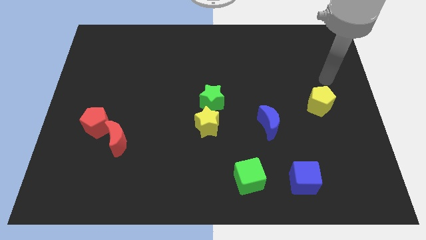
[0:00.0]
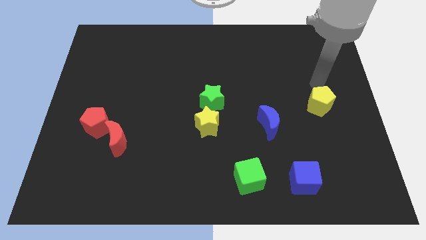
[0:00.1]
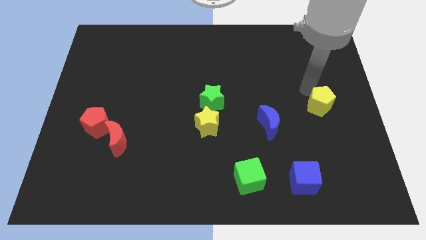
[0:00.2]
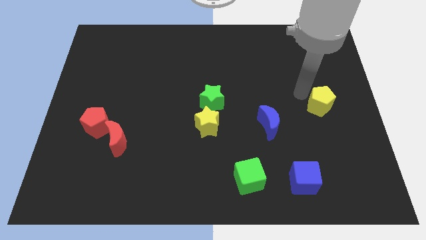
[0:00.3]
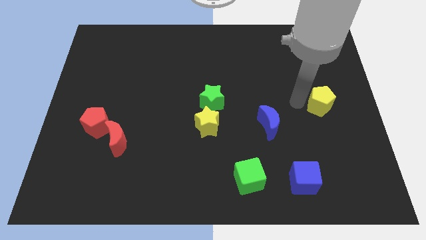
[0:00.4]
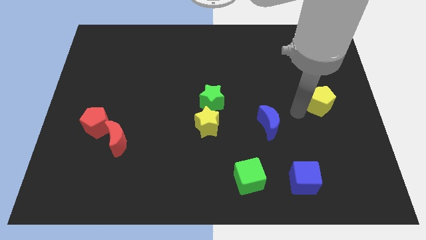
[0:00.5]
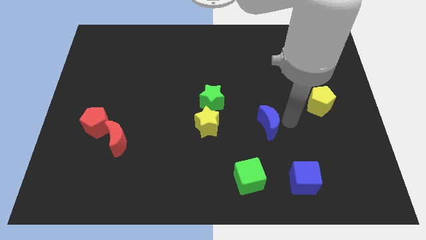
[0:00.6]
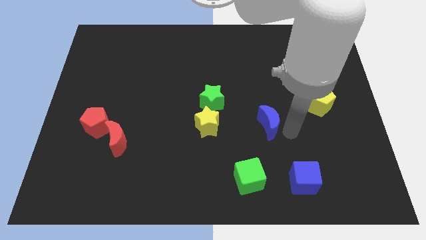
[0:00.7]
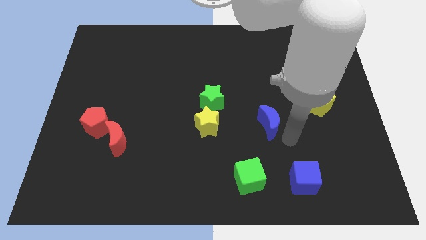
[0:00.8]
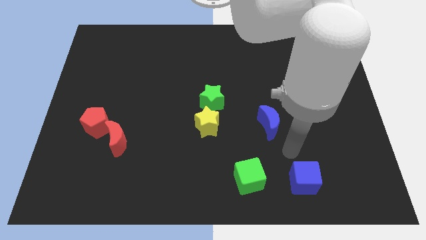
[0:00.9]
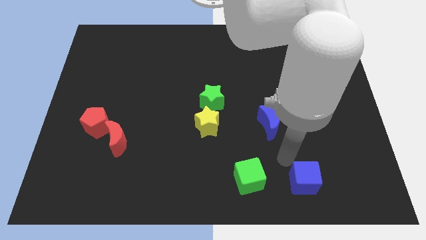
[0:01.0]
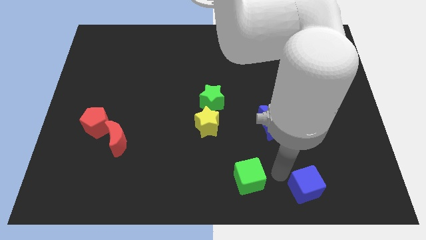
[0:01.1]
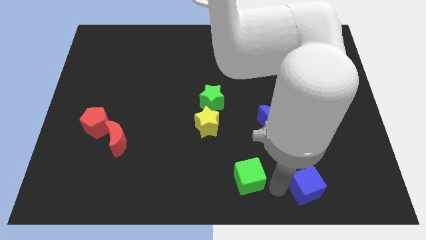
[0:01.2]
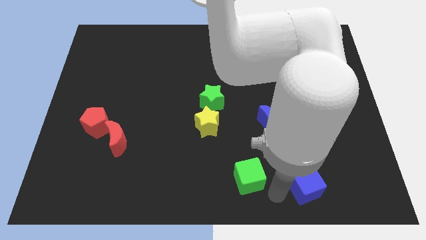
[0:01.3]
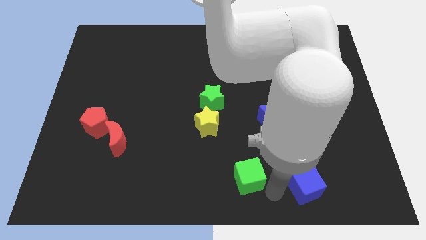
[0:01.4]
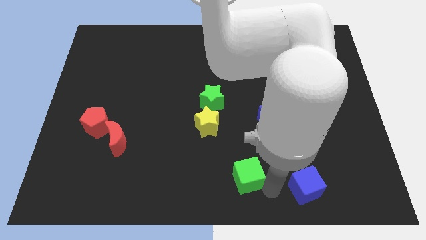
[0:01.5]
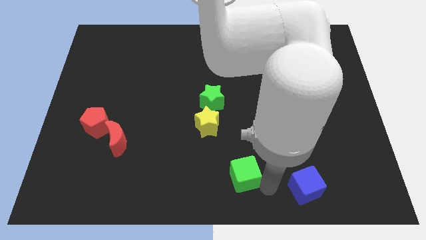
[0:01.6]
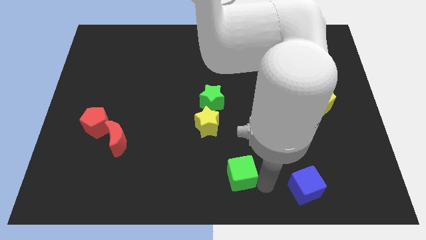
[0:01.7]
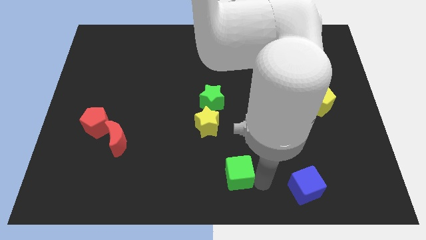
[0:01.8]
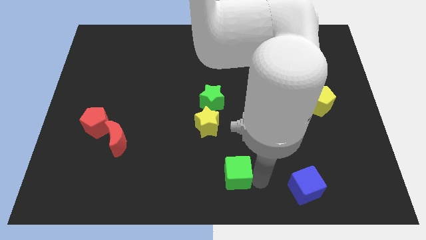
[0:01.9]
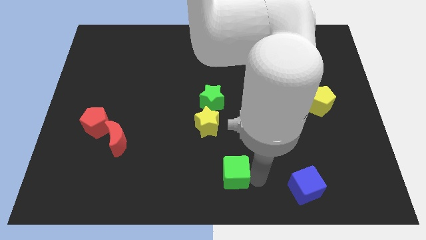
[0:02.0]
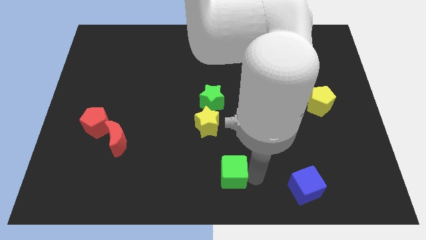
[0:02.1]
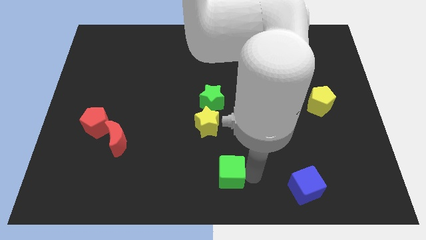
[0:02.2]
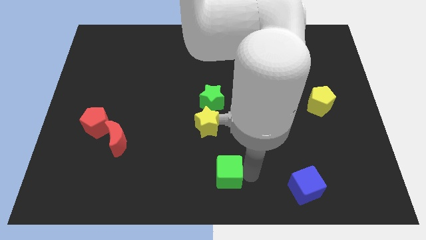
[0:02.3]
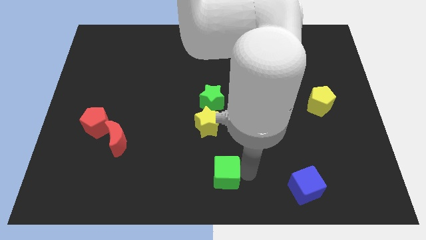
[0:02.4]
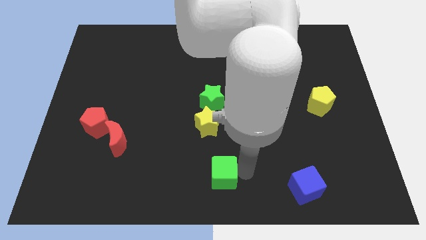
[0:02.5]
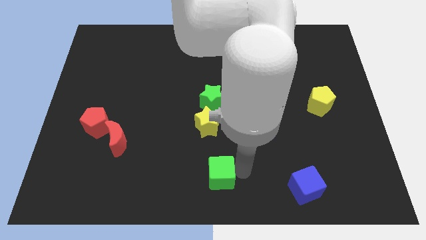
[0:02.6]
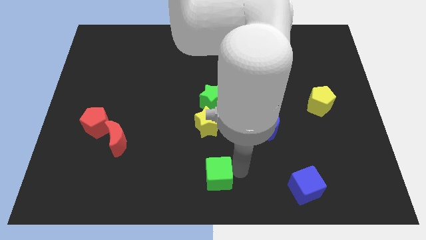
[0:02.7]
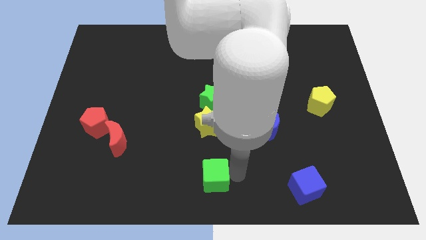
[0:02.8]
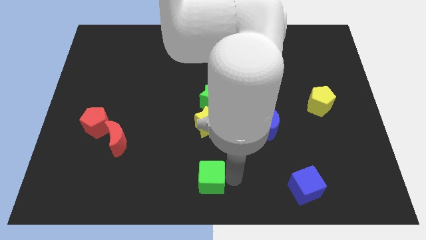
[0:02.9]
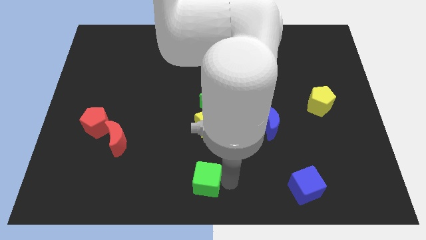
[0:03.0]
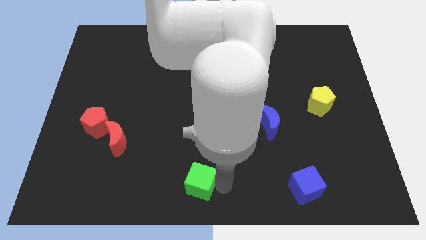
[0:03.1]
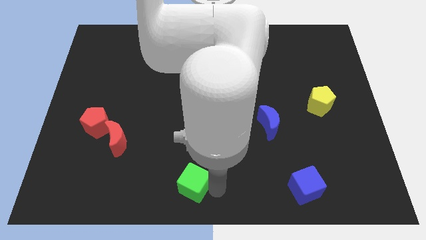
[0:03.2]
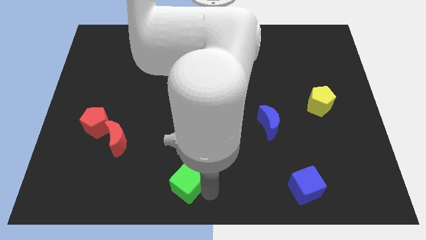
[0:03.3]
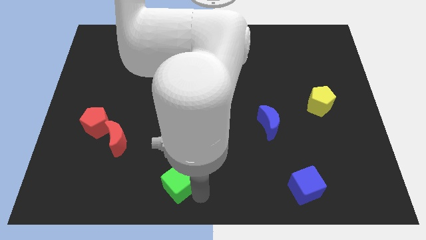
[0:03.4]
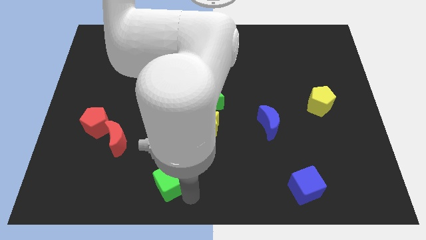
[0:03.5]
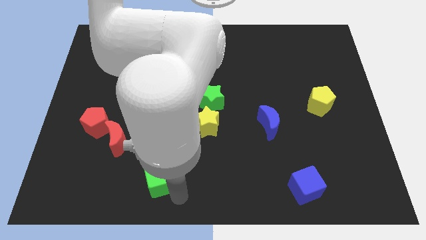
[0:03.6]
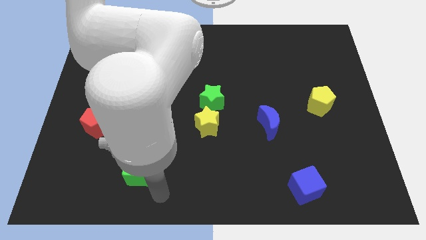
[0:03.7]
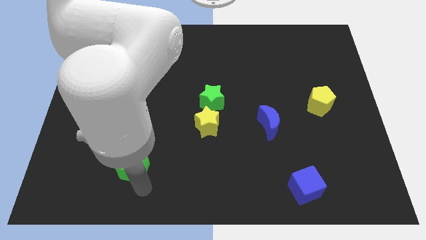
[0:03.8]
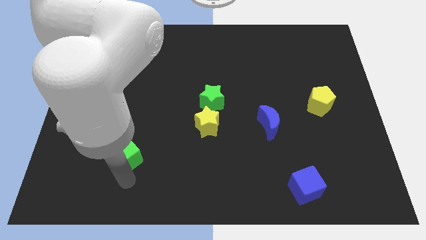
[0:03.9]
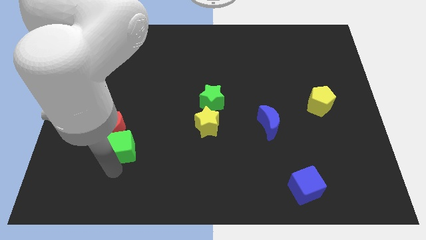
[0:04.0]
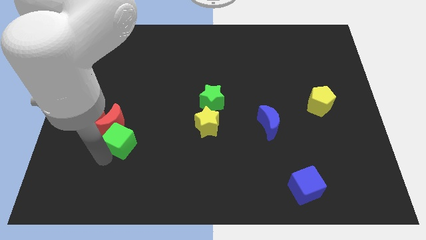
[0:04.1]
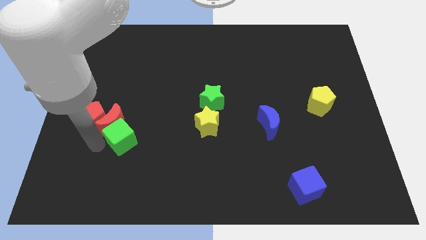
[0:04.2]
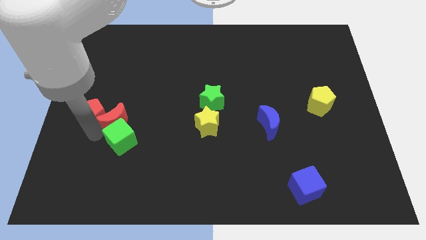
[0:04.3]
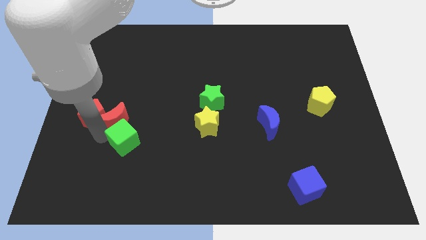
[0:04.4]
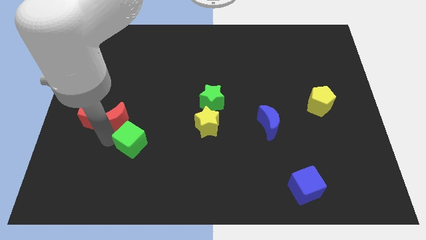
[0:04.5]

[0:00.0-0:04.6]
move the green cube upwards and to the left diagonally a bit

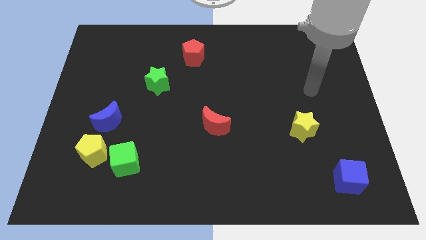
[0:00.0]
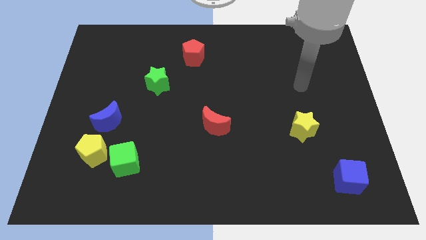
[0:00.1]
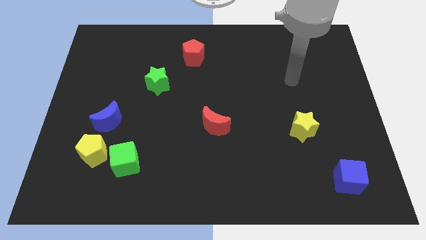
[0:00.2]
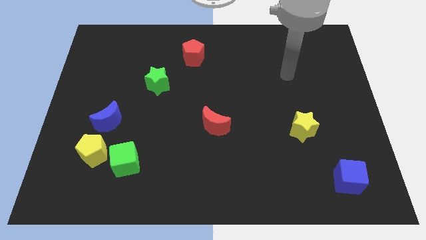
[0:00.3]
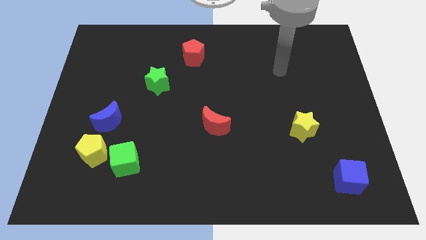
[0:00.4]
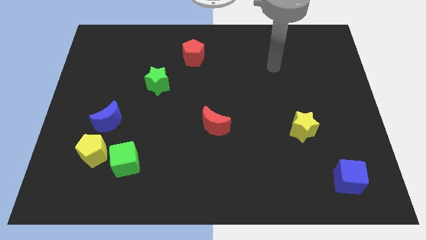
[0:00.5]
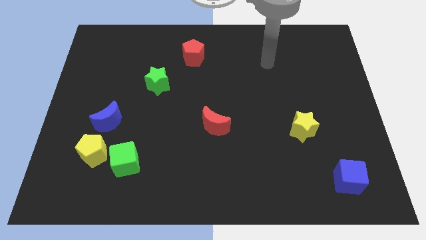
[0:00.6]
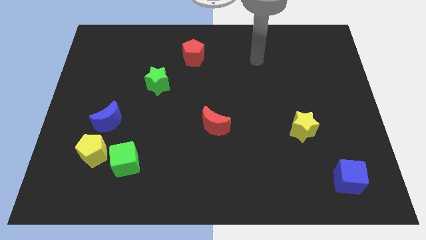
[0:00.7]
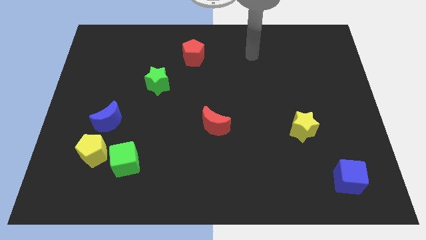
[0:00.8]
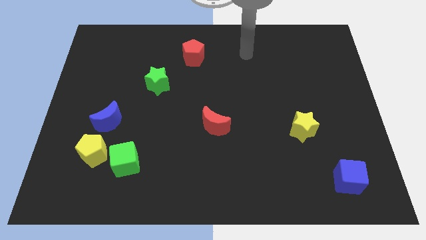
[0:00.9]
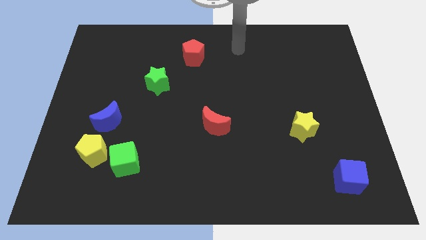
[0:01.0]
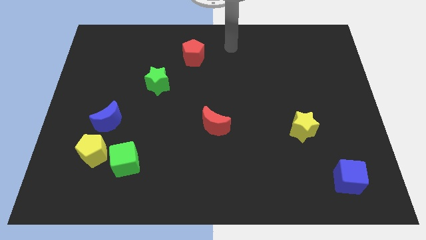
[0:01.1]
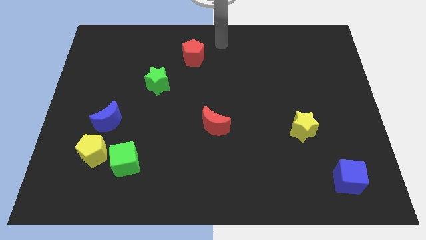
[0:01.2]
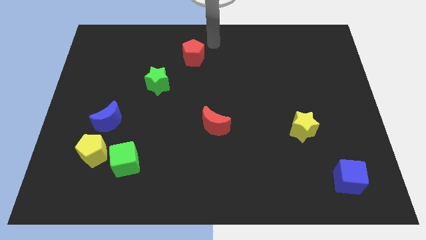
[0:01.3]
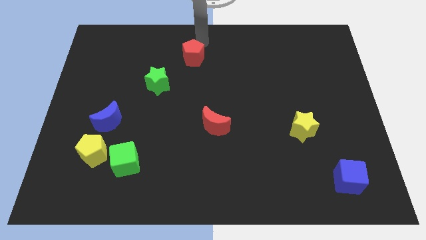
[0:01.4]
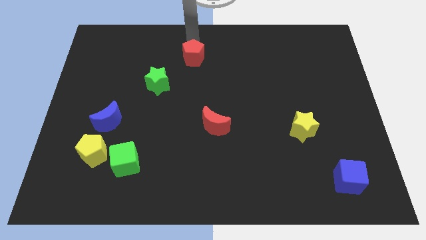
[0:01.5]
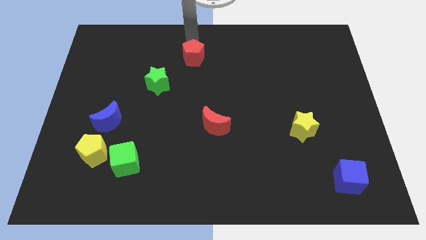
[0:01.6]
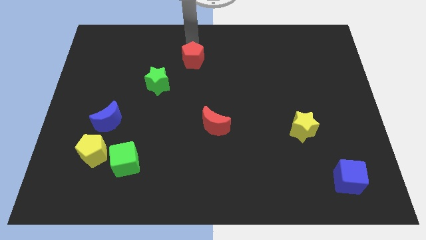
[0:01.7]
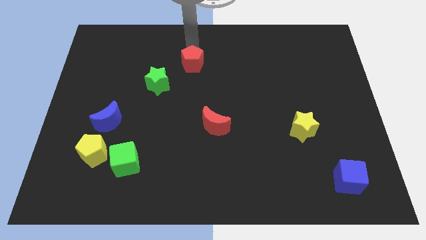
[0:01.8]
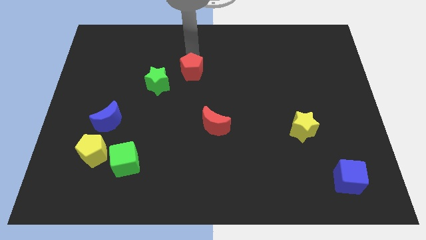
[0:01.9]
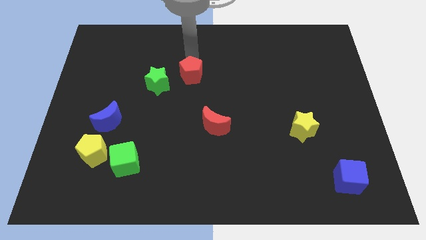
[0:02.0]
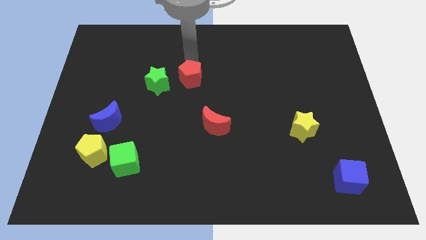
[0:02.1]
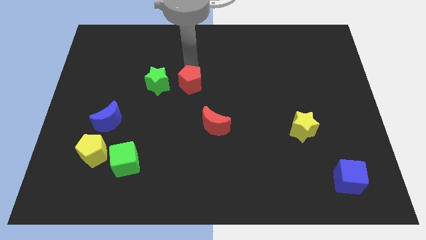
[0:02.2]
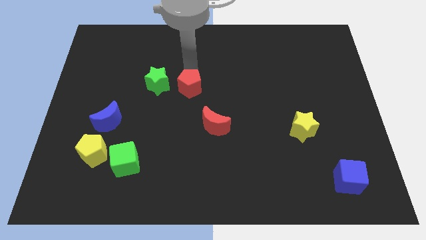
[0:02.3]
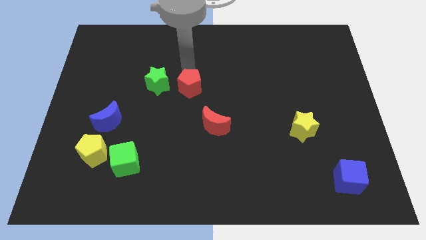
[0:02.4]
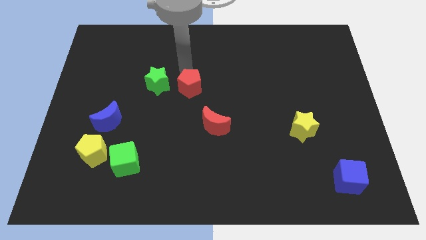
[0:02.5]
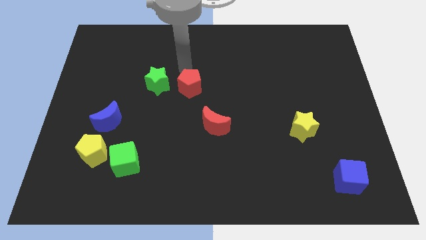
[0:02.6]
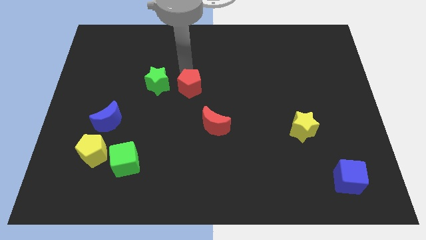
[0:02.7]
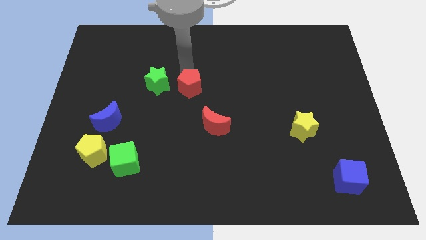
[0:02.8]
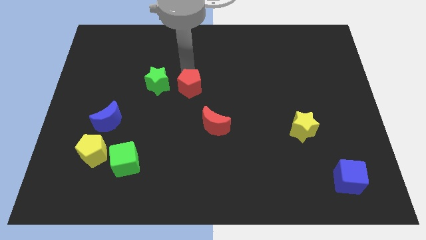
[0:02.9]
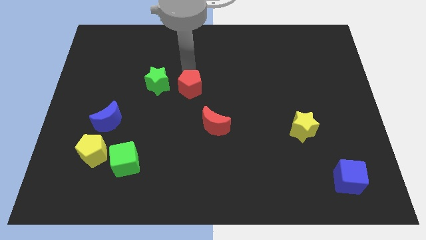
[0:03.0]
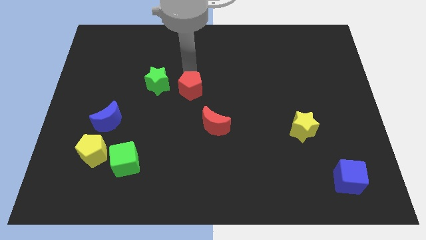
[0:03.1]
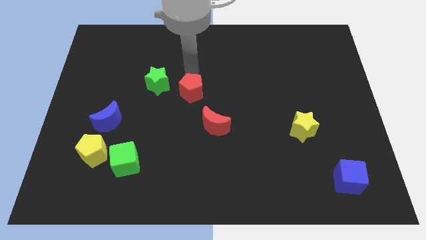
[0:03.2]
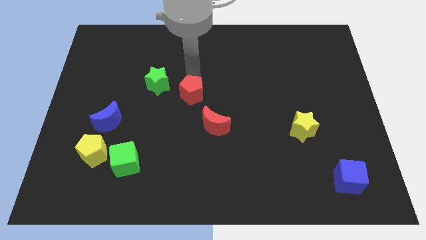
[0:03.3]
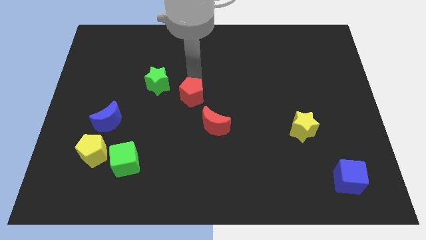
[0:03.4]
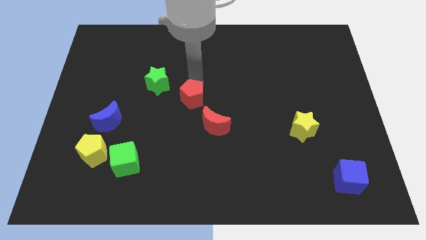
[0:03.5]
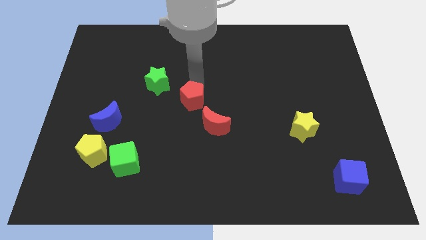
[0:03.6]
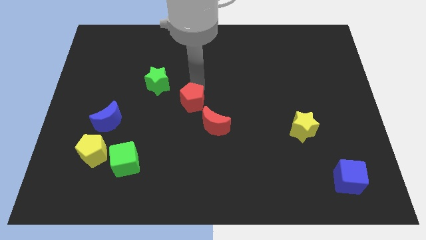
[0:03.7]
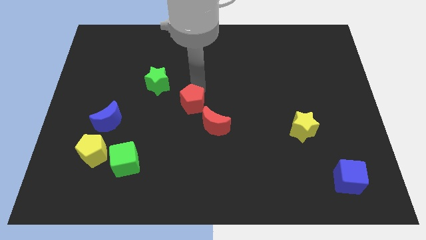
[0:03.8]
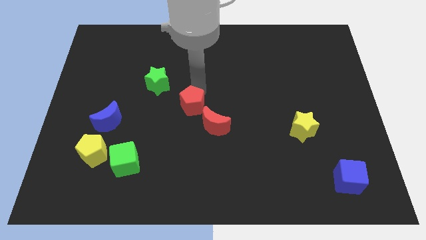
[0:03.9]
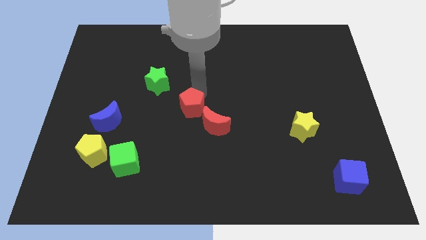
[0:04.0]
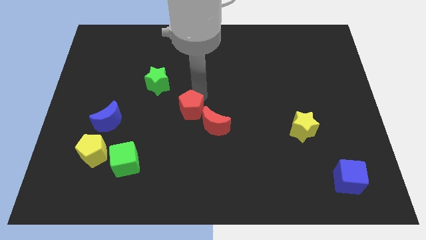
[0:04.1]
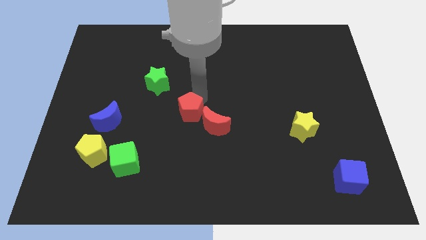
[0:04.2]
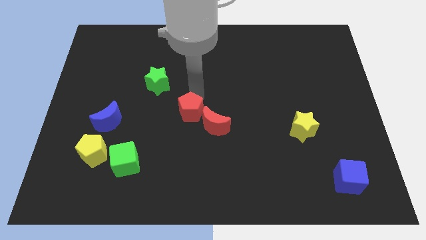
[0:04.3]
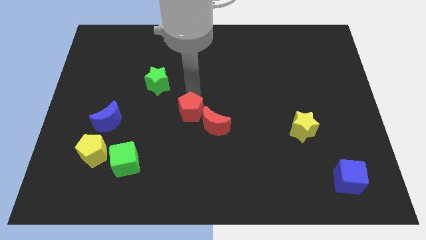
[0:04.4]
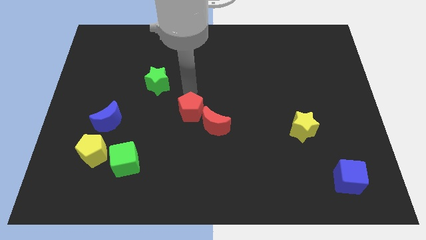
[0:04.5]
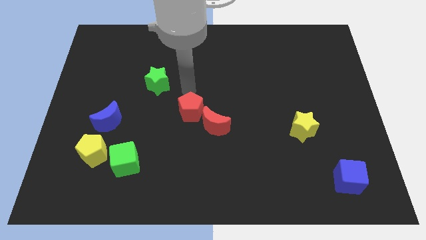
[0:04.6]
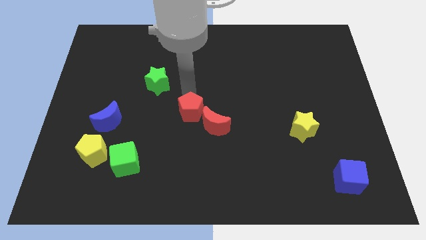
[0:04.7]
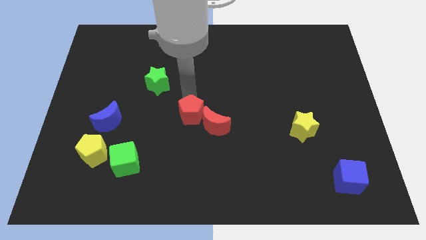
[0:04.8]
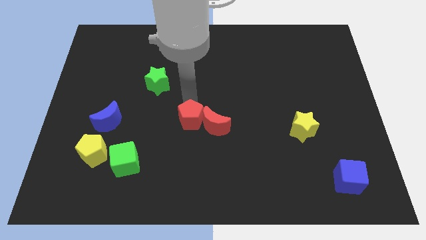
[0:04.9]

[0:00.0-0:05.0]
push the red pentagon down
